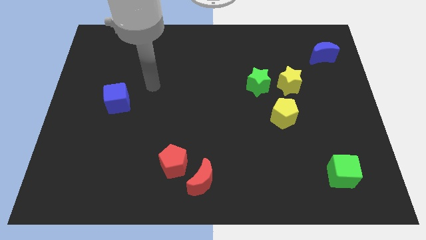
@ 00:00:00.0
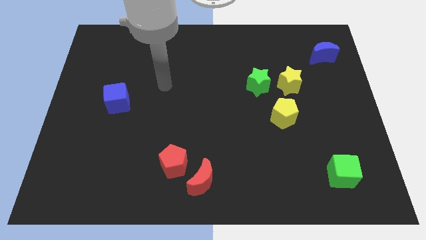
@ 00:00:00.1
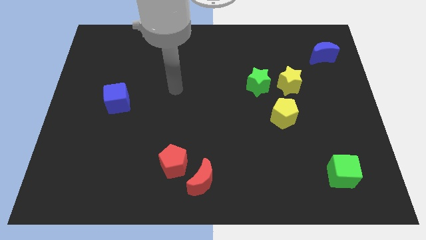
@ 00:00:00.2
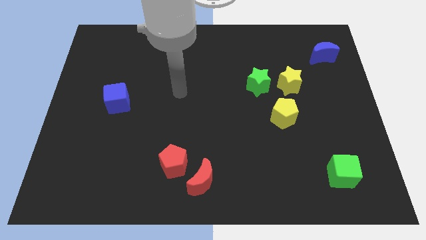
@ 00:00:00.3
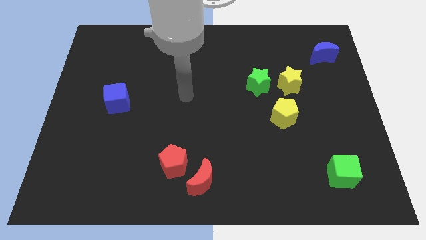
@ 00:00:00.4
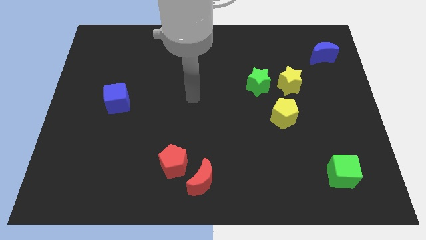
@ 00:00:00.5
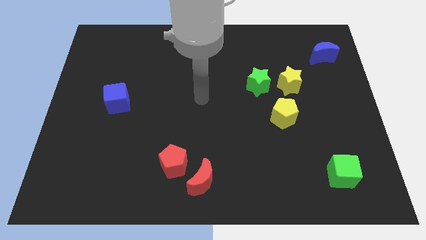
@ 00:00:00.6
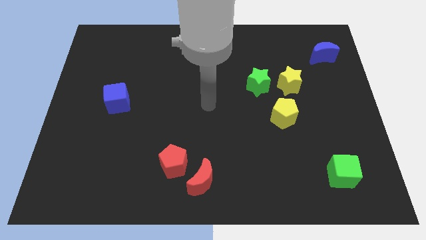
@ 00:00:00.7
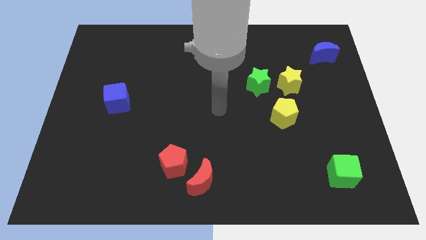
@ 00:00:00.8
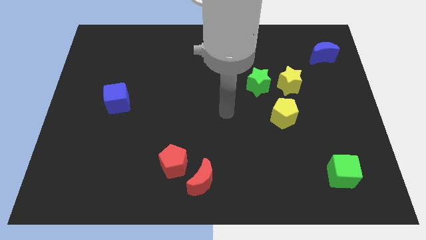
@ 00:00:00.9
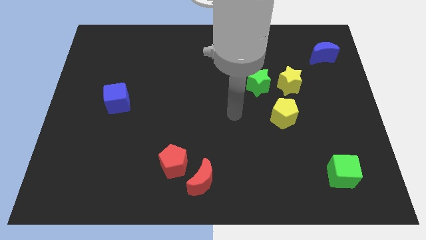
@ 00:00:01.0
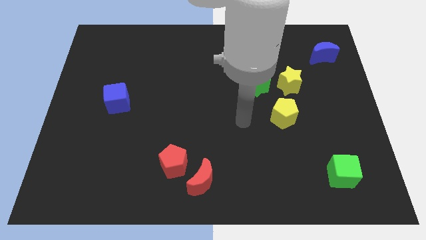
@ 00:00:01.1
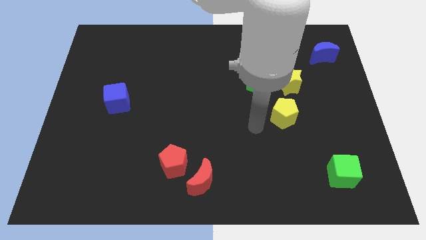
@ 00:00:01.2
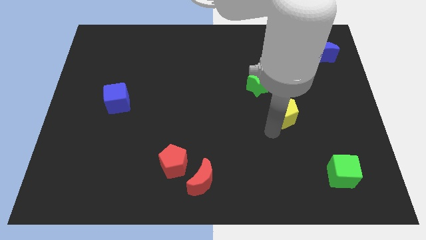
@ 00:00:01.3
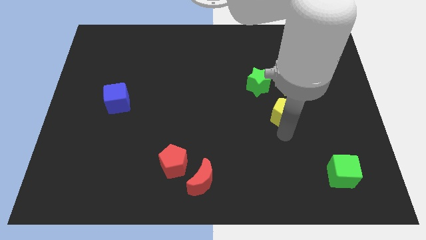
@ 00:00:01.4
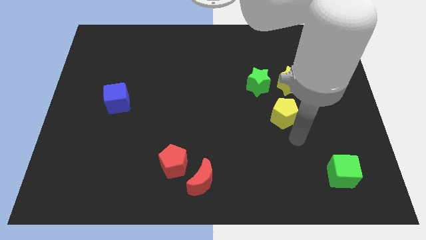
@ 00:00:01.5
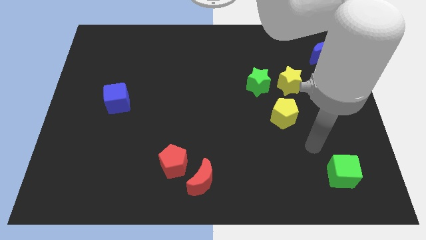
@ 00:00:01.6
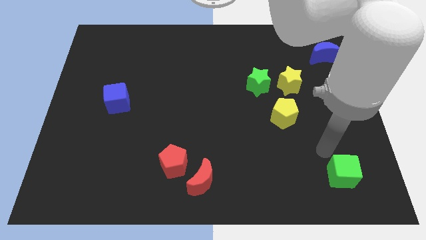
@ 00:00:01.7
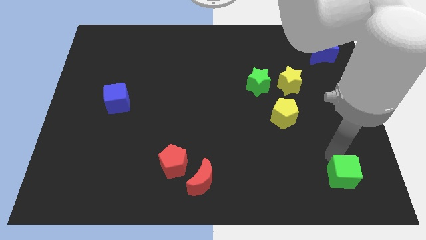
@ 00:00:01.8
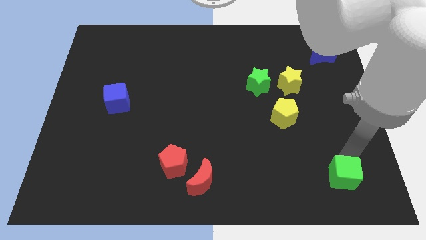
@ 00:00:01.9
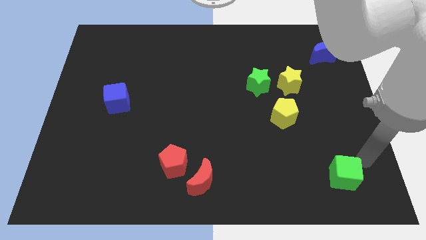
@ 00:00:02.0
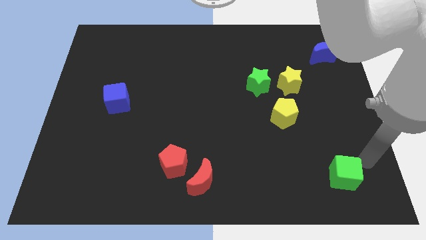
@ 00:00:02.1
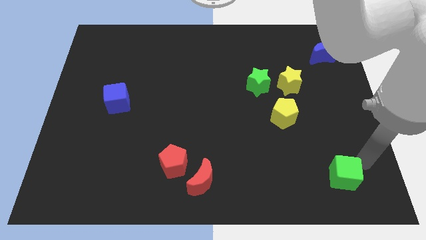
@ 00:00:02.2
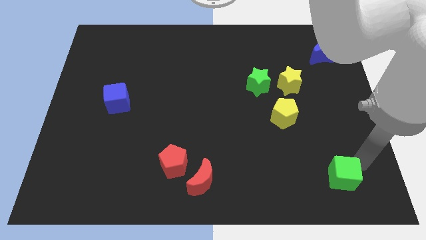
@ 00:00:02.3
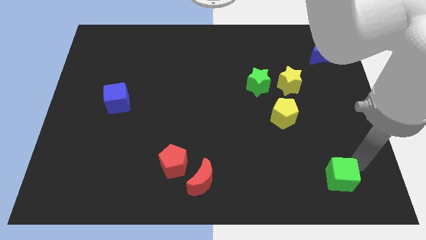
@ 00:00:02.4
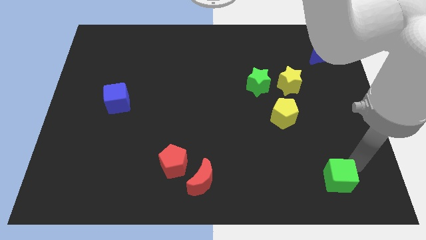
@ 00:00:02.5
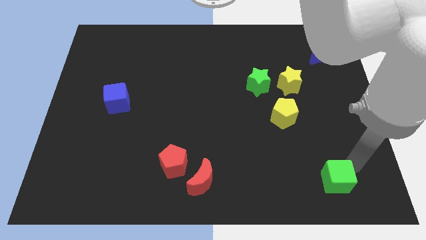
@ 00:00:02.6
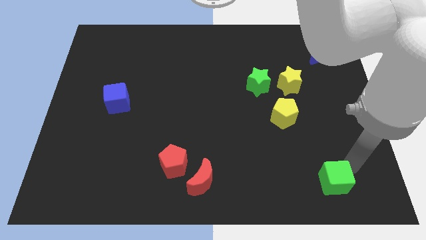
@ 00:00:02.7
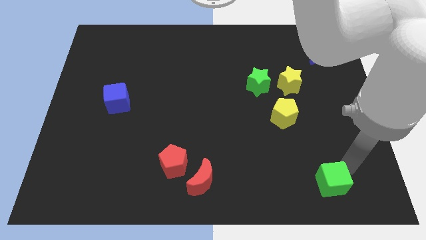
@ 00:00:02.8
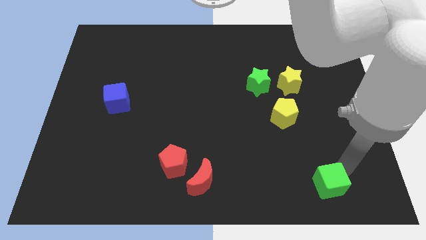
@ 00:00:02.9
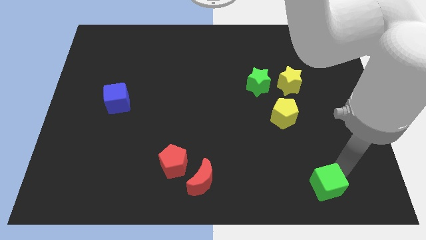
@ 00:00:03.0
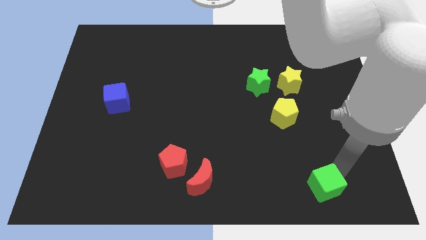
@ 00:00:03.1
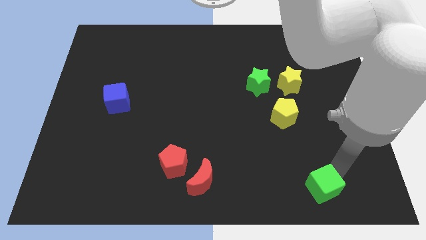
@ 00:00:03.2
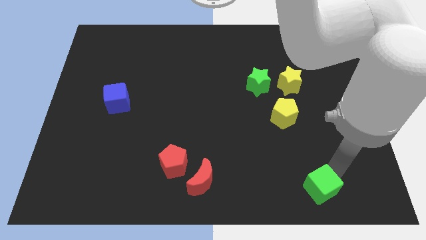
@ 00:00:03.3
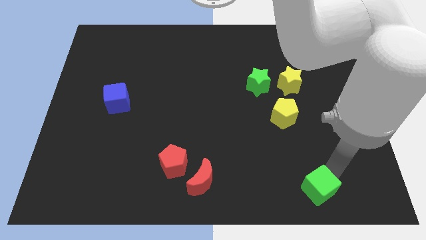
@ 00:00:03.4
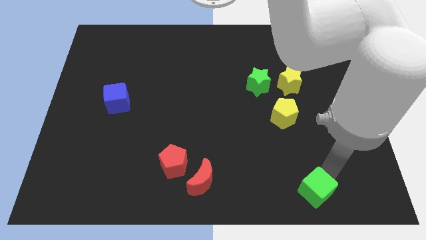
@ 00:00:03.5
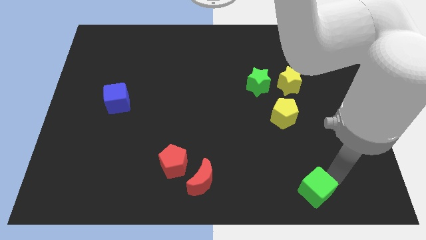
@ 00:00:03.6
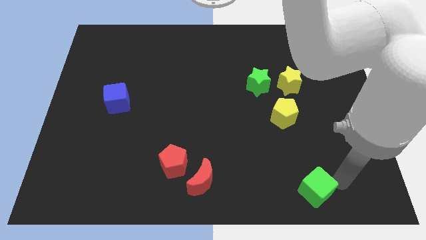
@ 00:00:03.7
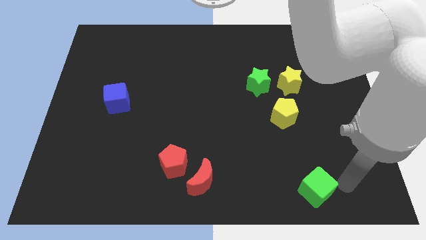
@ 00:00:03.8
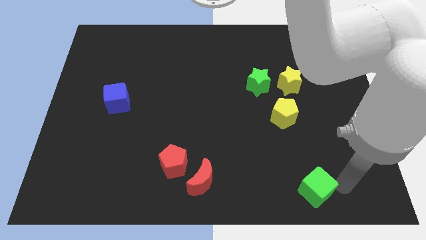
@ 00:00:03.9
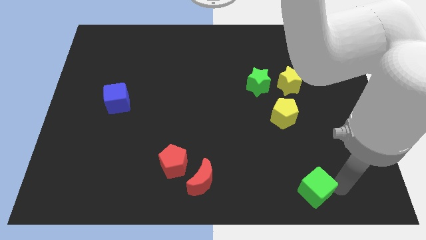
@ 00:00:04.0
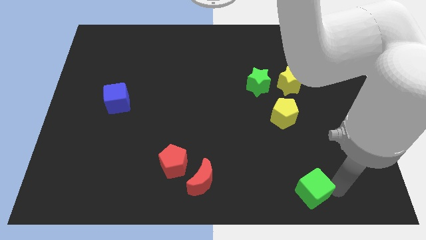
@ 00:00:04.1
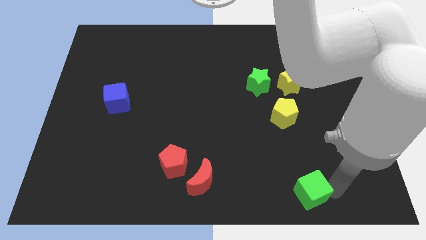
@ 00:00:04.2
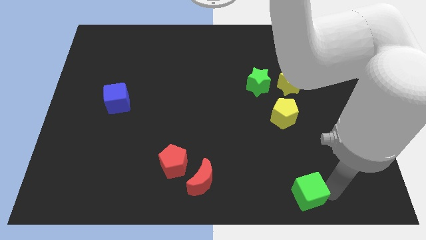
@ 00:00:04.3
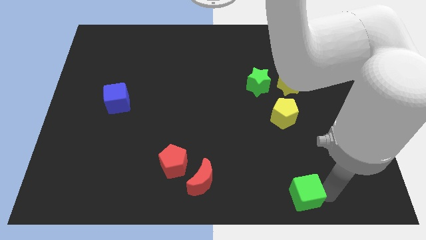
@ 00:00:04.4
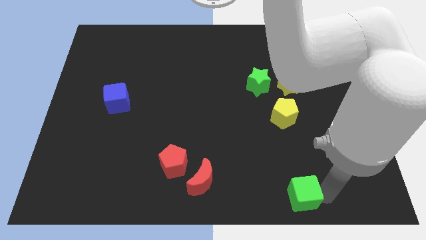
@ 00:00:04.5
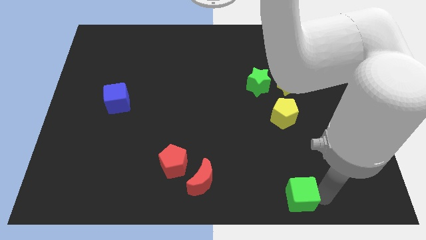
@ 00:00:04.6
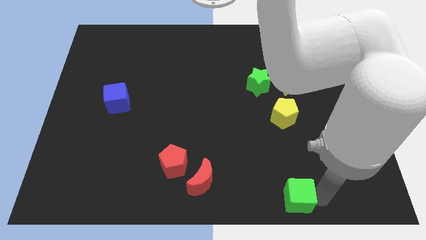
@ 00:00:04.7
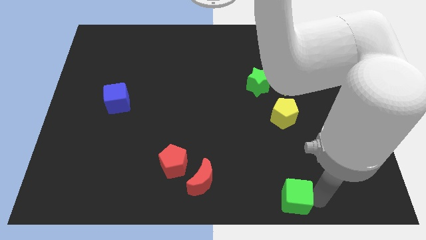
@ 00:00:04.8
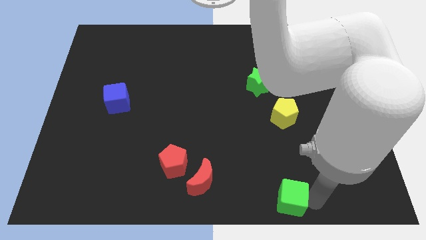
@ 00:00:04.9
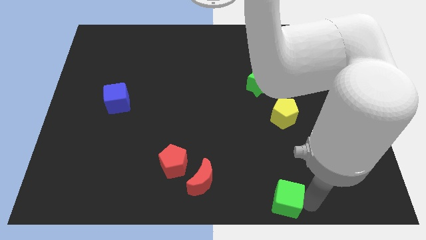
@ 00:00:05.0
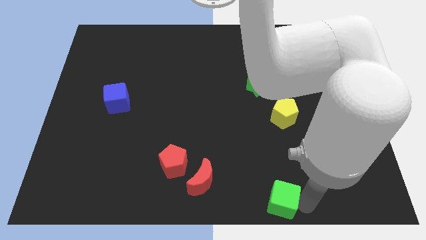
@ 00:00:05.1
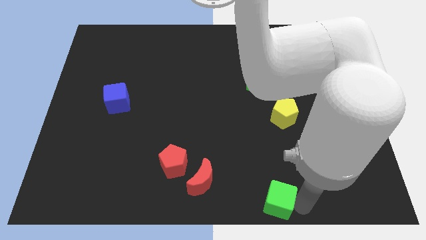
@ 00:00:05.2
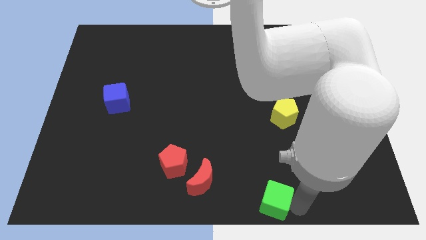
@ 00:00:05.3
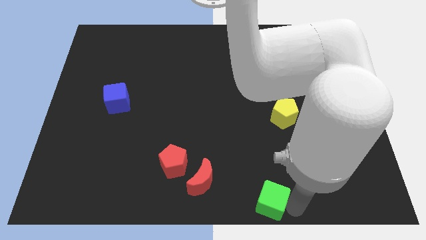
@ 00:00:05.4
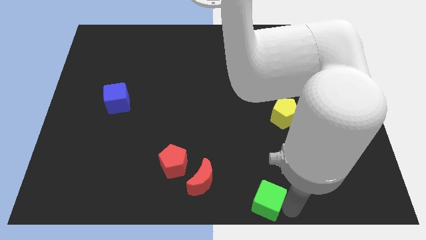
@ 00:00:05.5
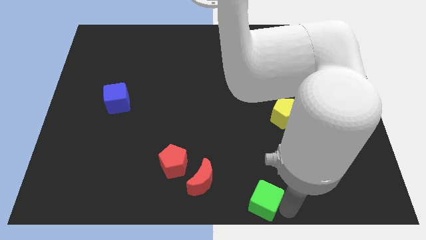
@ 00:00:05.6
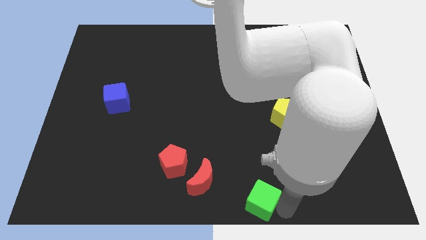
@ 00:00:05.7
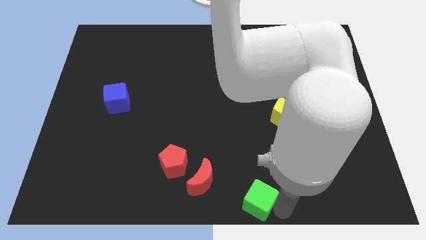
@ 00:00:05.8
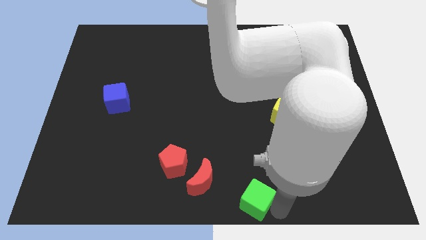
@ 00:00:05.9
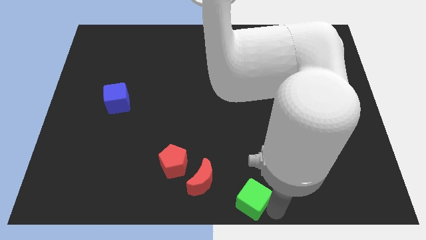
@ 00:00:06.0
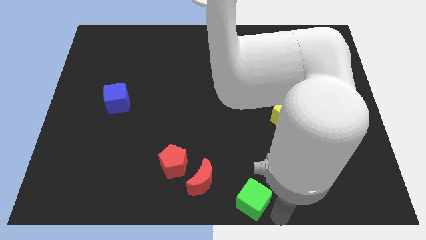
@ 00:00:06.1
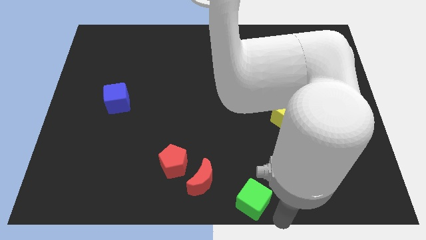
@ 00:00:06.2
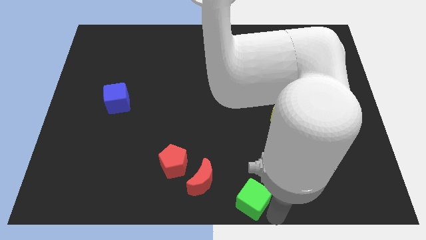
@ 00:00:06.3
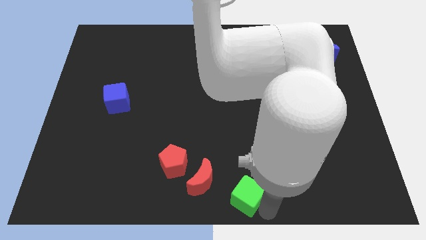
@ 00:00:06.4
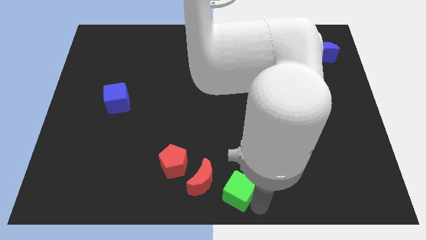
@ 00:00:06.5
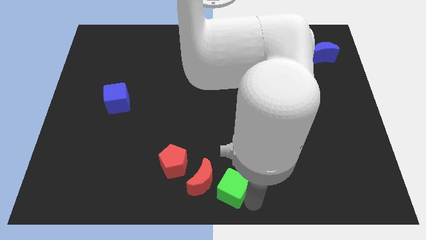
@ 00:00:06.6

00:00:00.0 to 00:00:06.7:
push the green cube to the red moon

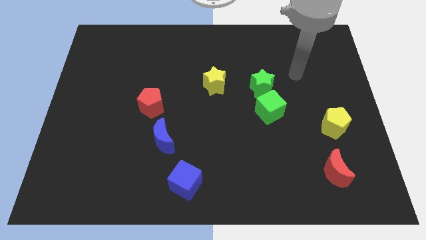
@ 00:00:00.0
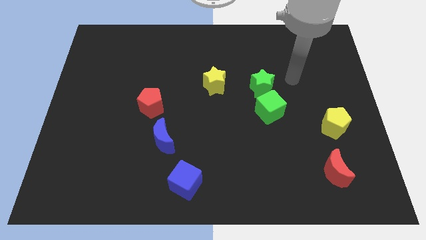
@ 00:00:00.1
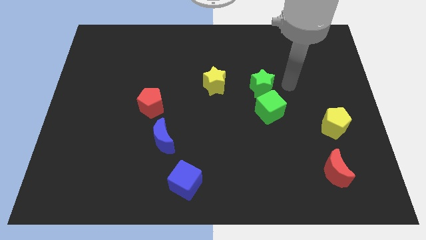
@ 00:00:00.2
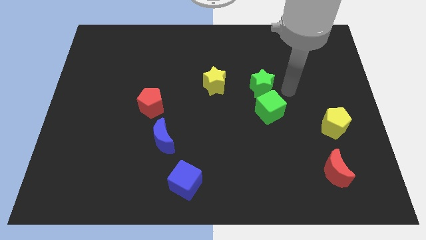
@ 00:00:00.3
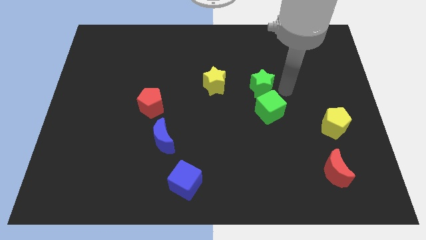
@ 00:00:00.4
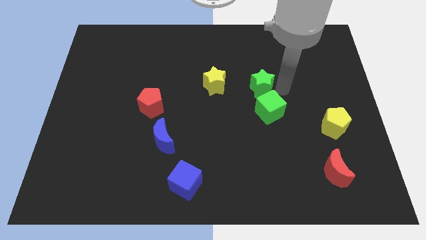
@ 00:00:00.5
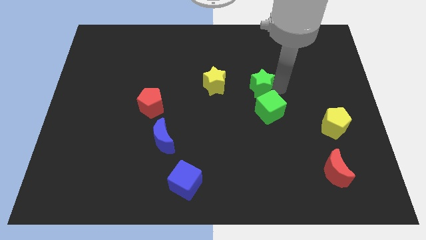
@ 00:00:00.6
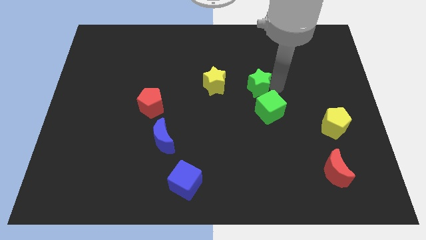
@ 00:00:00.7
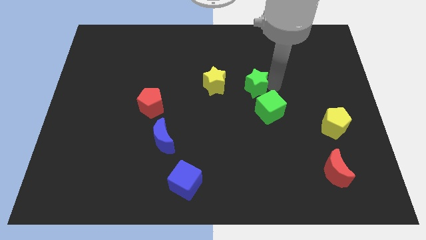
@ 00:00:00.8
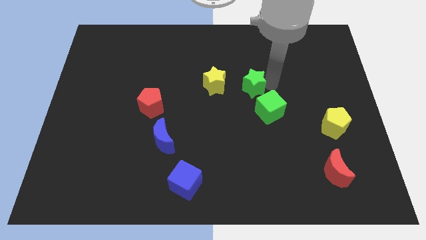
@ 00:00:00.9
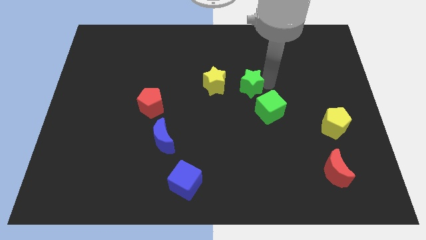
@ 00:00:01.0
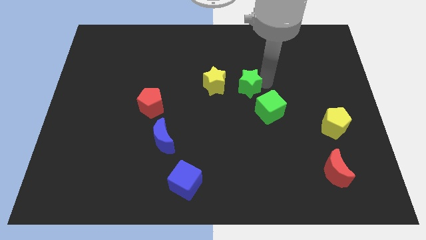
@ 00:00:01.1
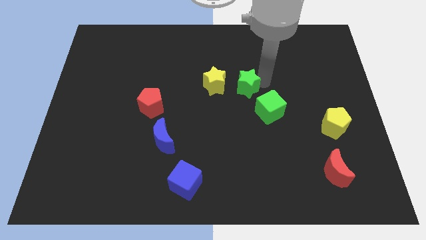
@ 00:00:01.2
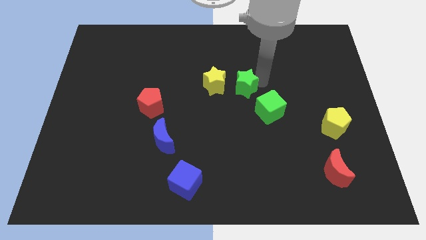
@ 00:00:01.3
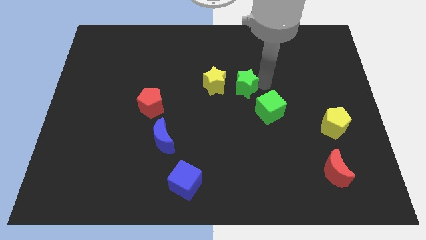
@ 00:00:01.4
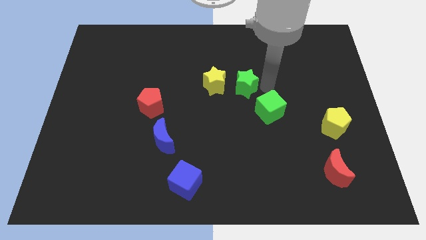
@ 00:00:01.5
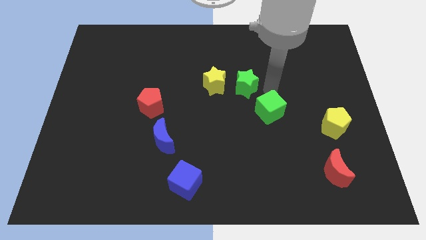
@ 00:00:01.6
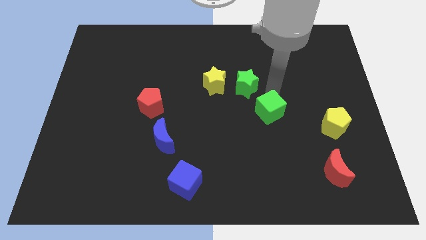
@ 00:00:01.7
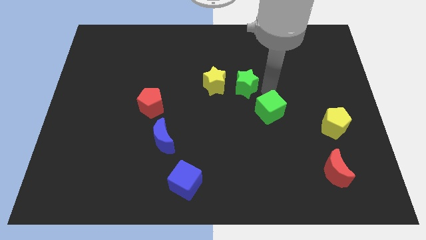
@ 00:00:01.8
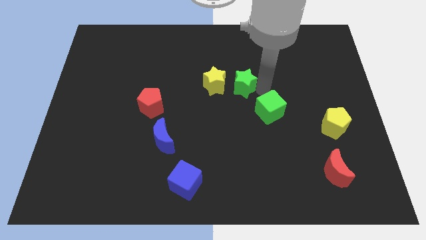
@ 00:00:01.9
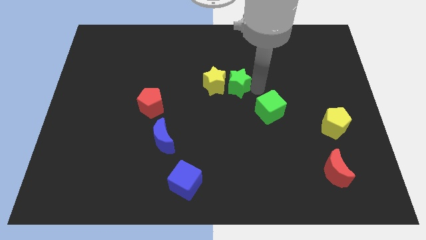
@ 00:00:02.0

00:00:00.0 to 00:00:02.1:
move the green star next to the yellow star
